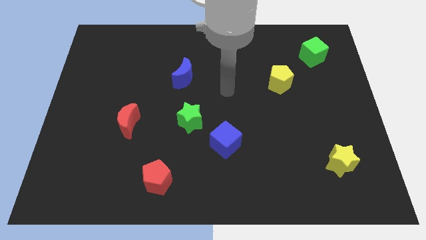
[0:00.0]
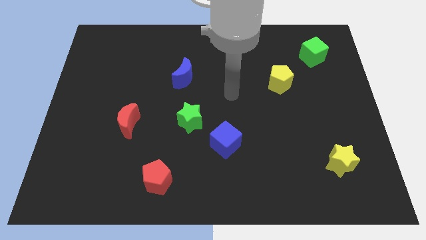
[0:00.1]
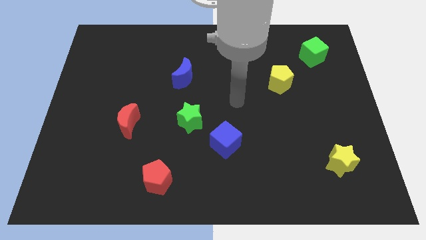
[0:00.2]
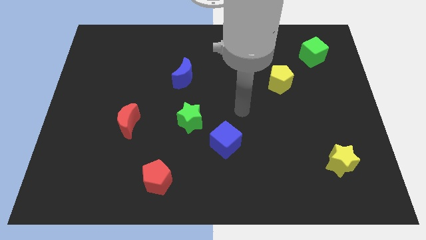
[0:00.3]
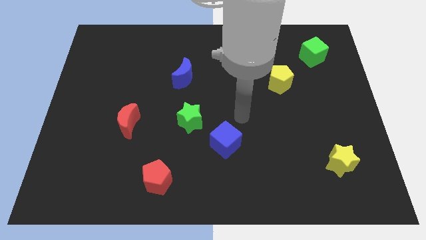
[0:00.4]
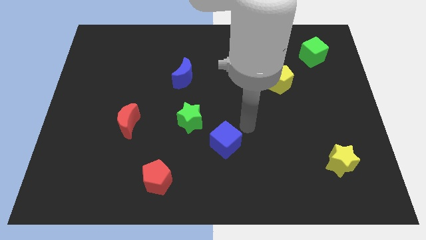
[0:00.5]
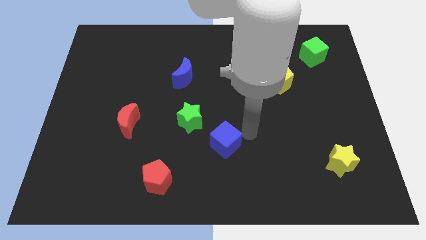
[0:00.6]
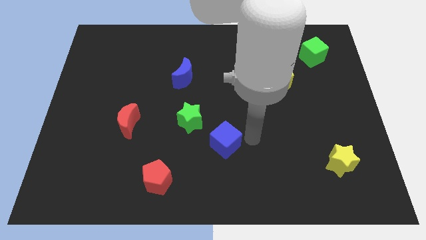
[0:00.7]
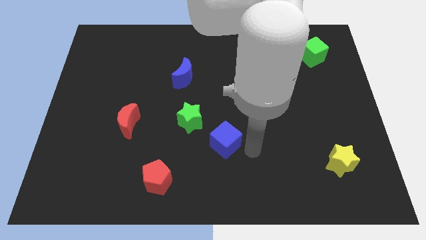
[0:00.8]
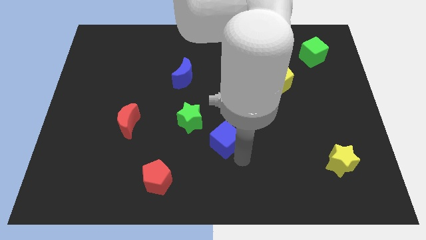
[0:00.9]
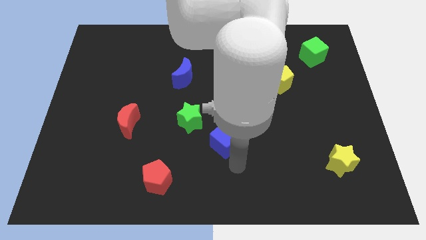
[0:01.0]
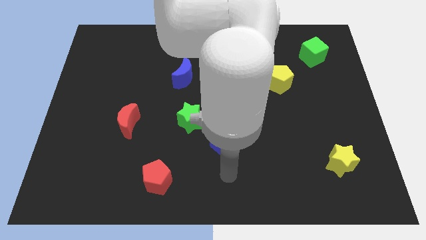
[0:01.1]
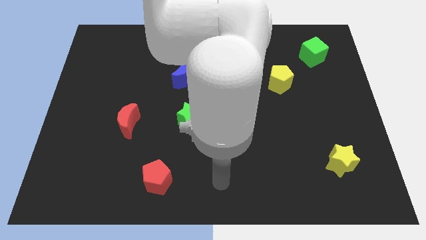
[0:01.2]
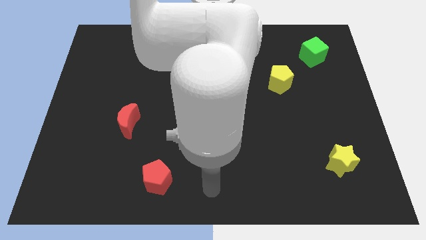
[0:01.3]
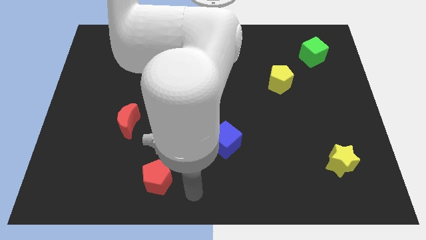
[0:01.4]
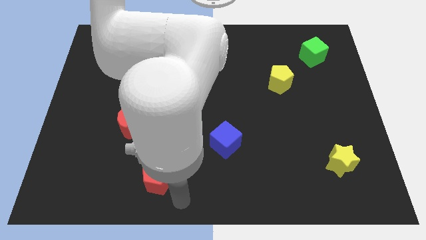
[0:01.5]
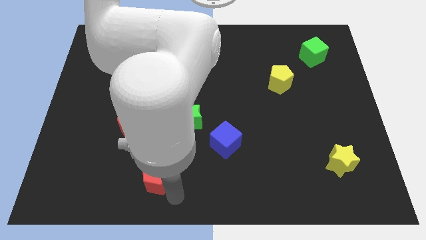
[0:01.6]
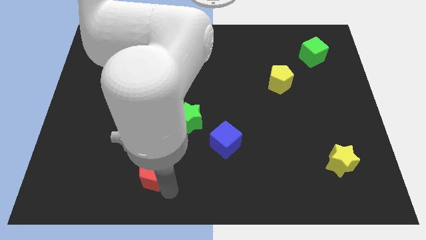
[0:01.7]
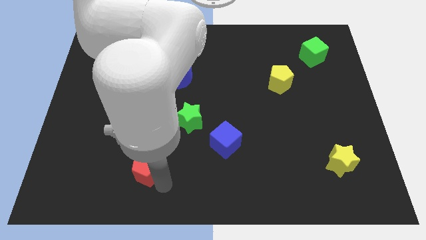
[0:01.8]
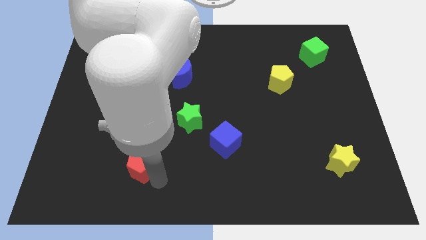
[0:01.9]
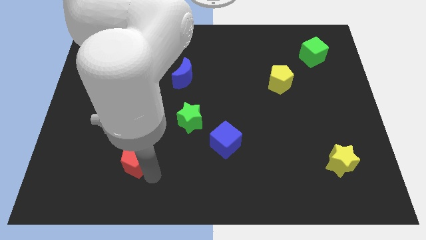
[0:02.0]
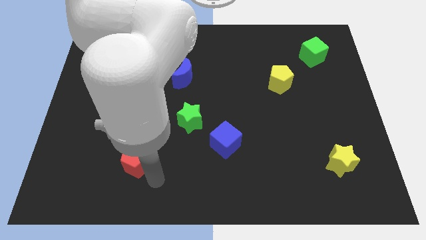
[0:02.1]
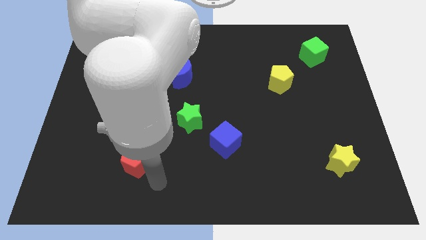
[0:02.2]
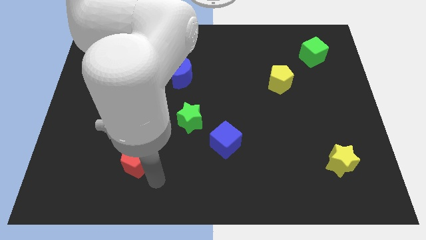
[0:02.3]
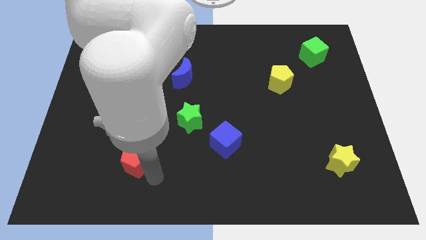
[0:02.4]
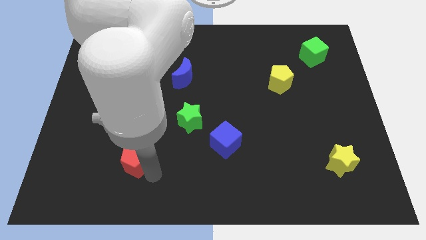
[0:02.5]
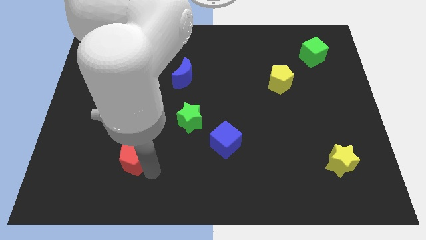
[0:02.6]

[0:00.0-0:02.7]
move the red pentagon a little bit upwards and then to the left

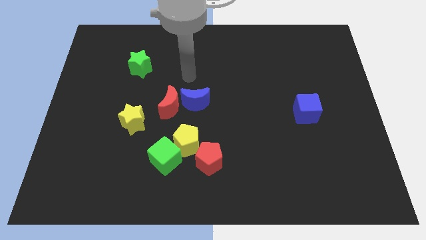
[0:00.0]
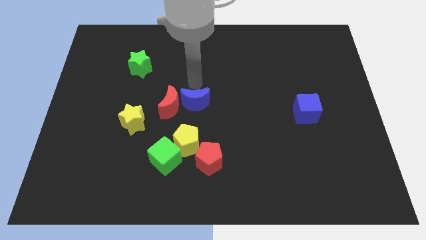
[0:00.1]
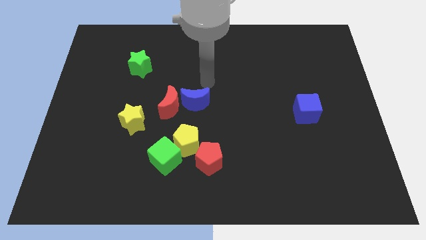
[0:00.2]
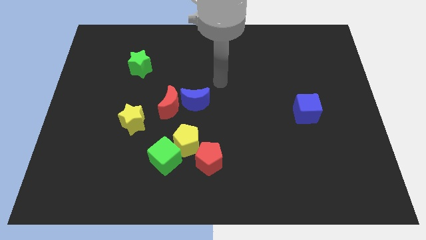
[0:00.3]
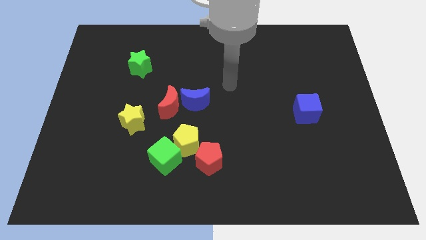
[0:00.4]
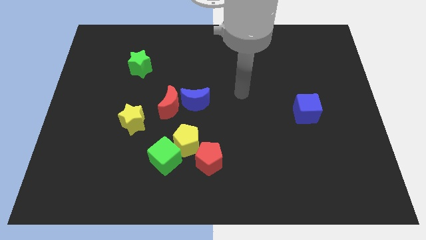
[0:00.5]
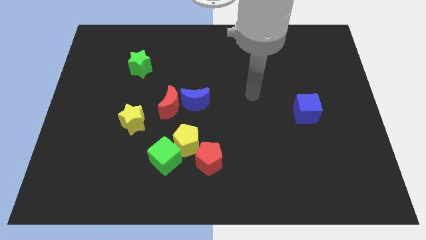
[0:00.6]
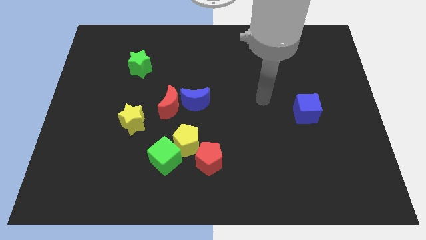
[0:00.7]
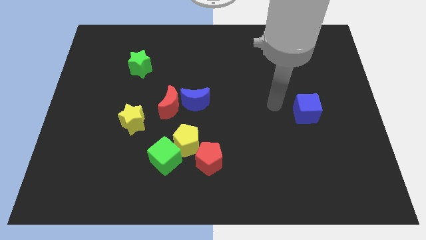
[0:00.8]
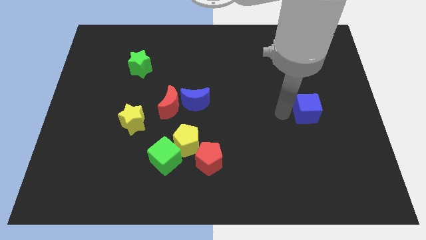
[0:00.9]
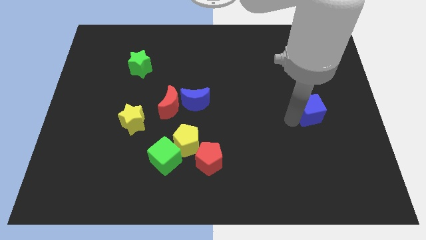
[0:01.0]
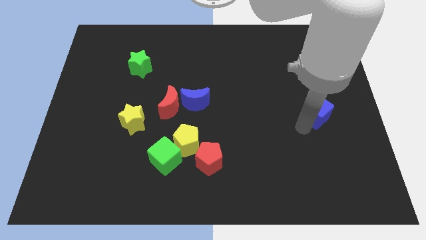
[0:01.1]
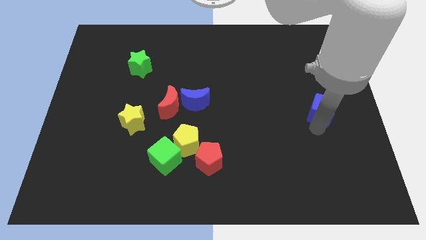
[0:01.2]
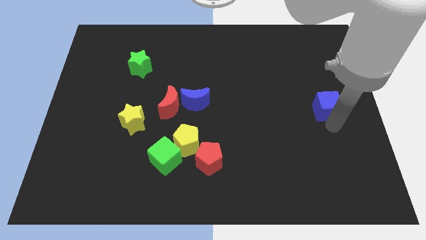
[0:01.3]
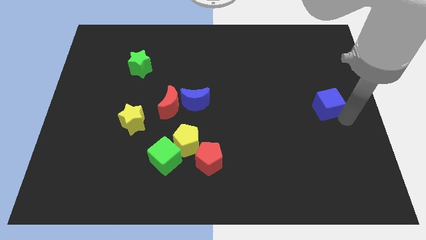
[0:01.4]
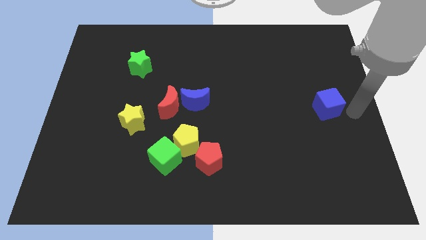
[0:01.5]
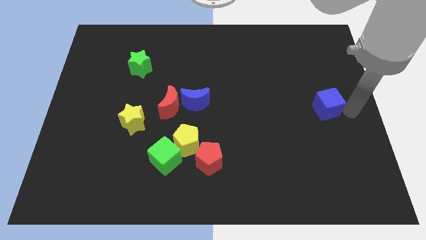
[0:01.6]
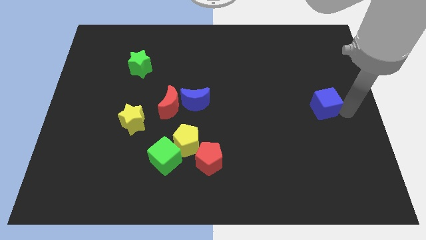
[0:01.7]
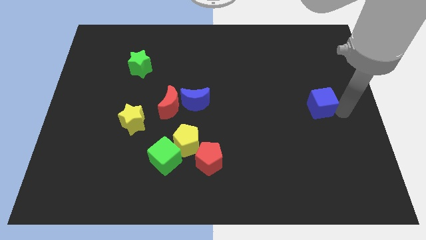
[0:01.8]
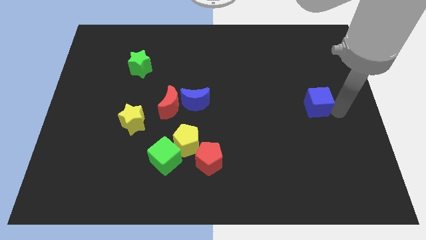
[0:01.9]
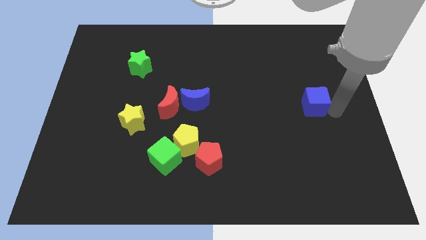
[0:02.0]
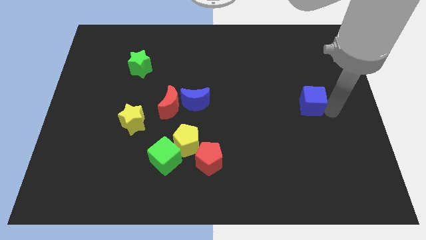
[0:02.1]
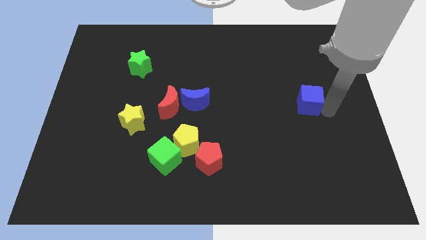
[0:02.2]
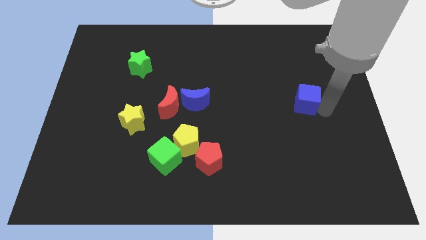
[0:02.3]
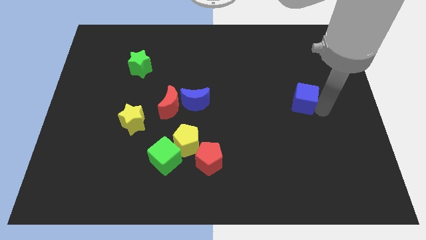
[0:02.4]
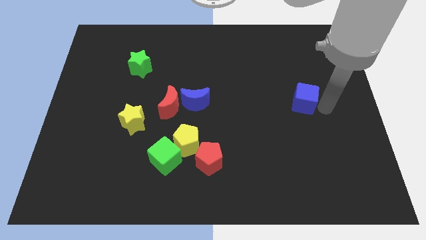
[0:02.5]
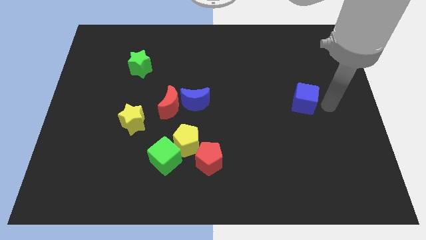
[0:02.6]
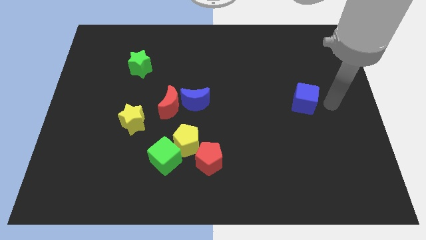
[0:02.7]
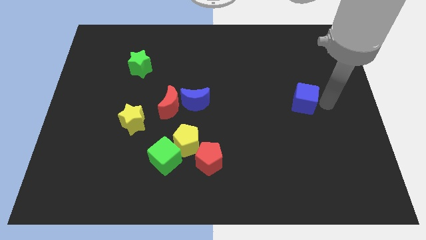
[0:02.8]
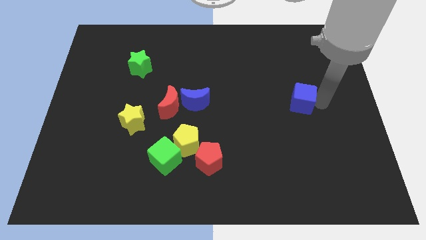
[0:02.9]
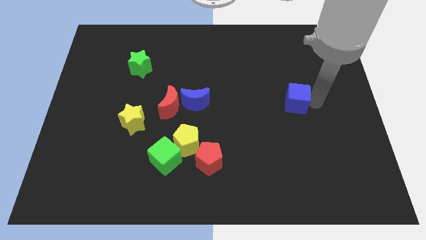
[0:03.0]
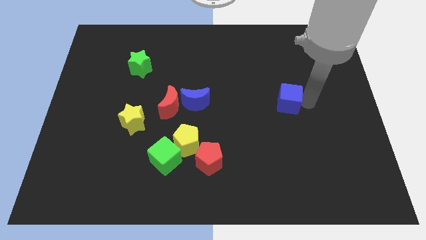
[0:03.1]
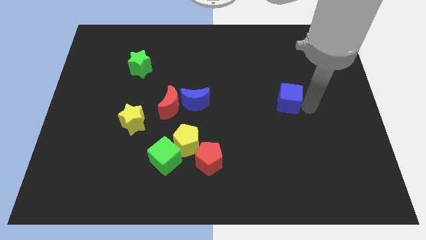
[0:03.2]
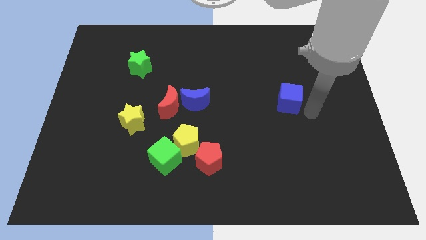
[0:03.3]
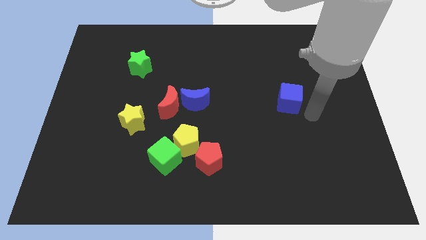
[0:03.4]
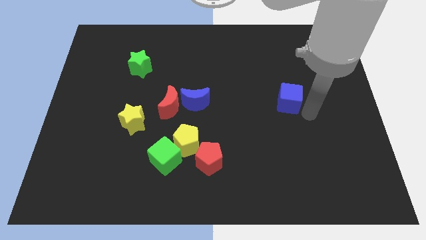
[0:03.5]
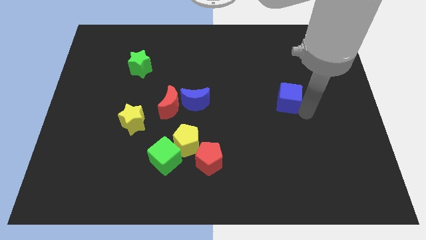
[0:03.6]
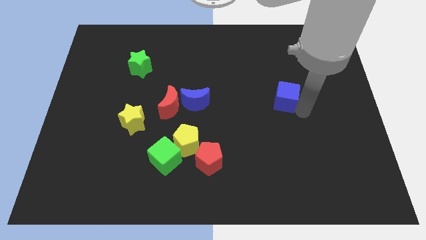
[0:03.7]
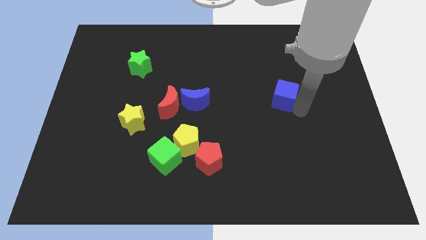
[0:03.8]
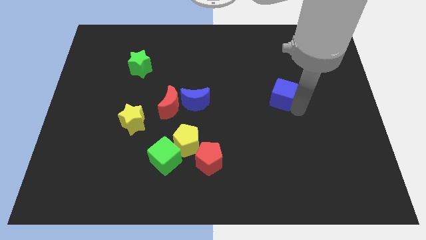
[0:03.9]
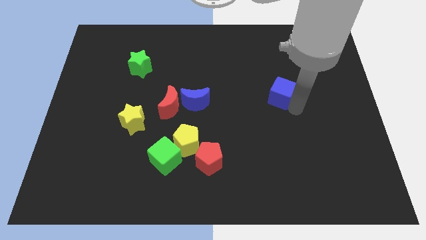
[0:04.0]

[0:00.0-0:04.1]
slide the blue cube up and then left a little

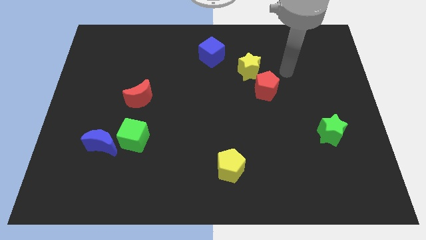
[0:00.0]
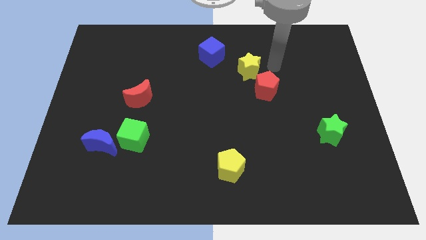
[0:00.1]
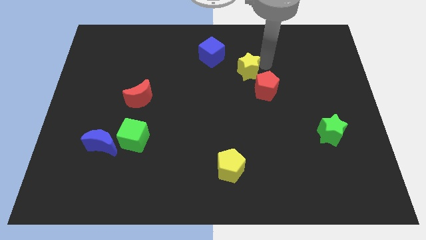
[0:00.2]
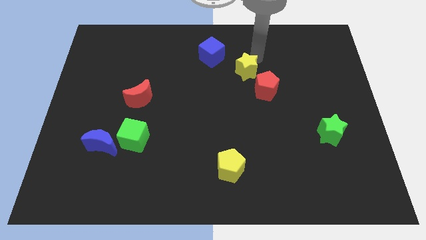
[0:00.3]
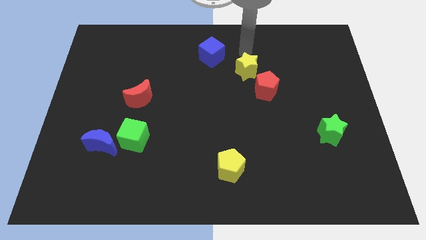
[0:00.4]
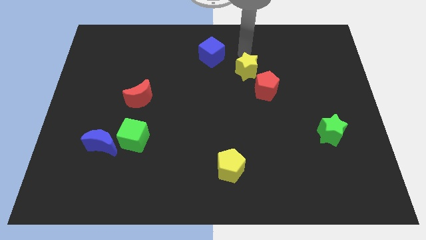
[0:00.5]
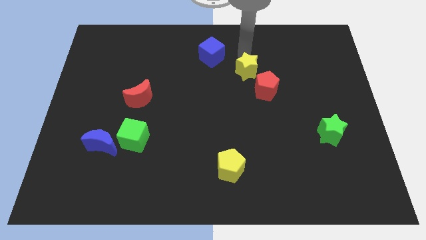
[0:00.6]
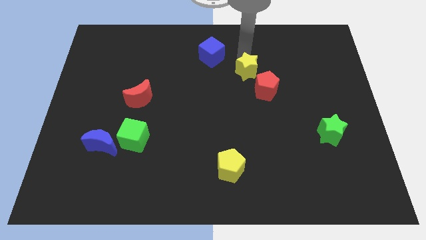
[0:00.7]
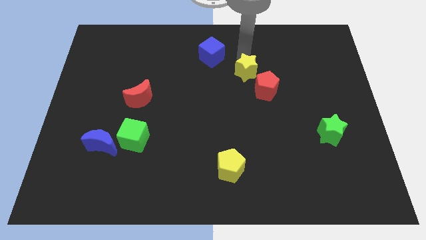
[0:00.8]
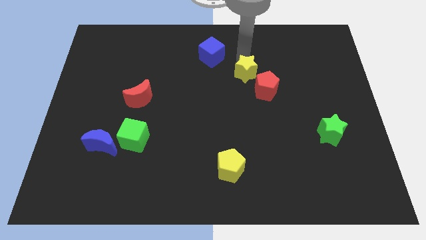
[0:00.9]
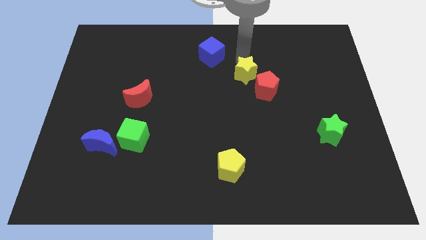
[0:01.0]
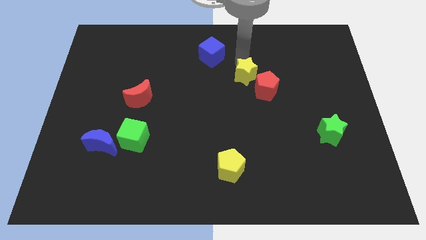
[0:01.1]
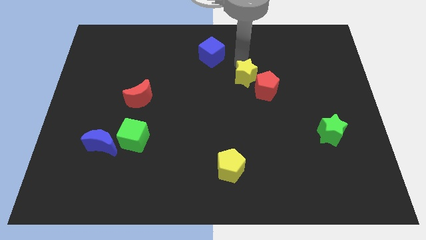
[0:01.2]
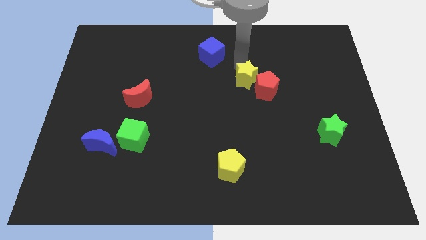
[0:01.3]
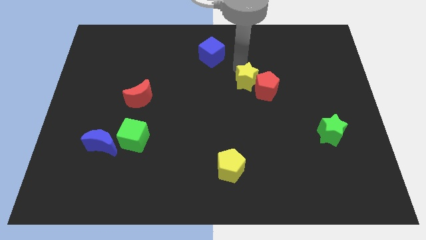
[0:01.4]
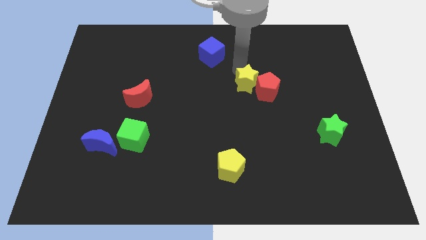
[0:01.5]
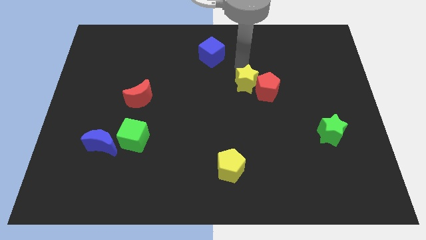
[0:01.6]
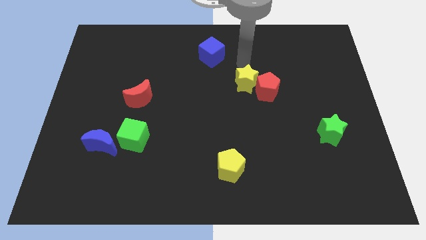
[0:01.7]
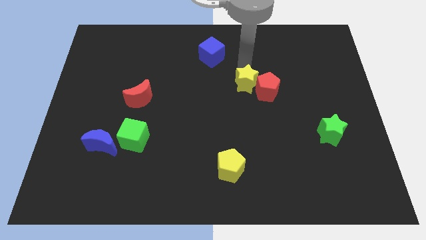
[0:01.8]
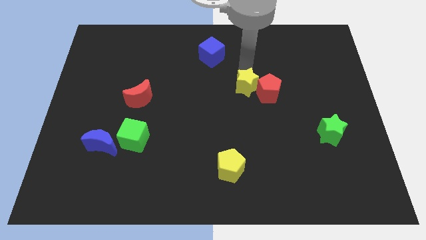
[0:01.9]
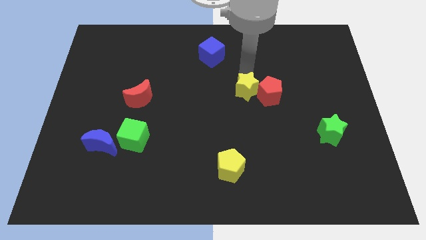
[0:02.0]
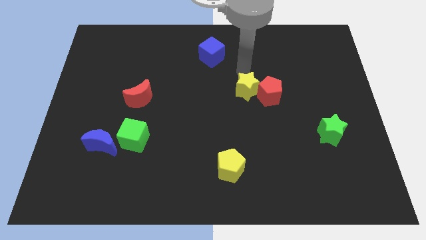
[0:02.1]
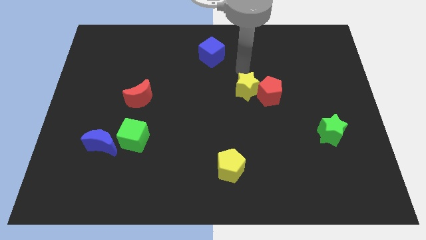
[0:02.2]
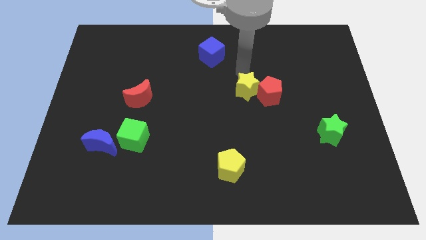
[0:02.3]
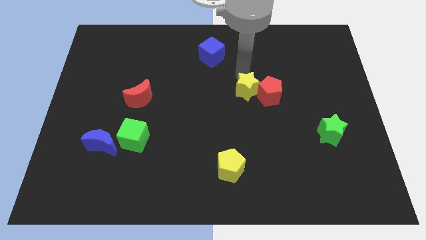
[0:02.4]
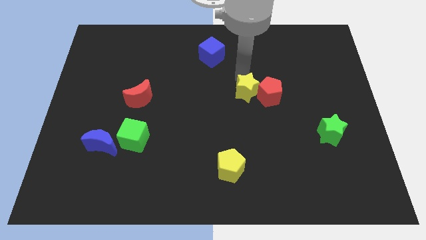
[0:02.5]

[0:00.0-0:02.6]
move the yellow star downwards a little bit
